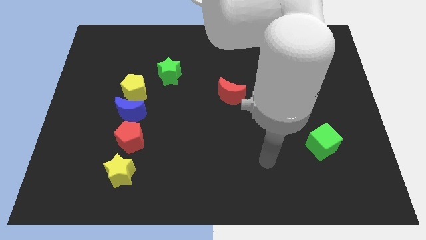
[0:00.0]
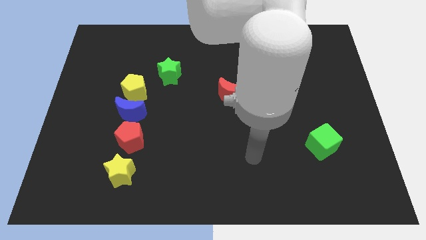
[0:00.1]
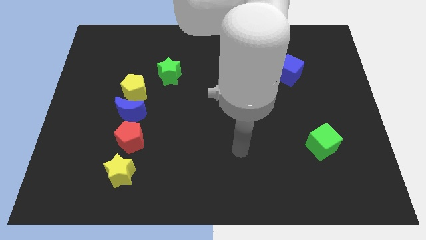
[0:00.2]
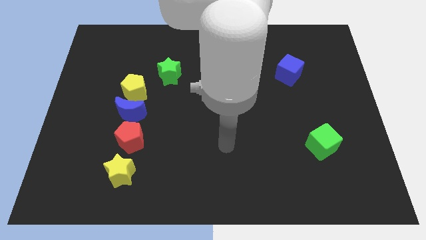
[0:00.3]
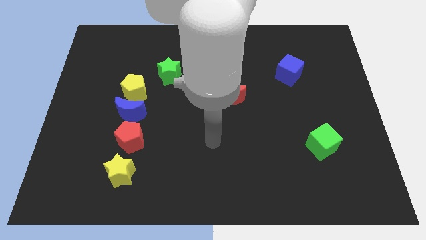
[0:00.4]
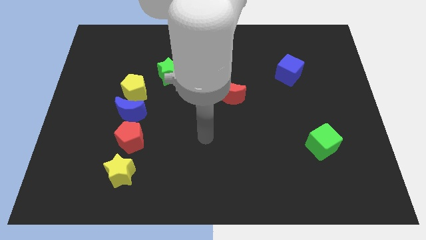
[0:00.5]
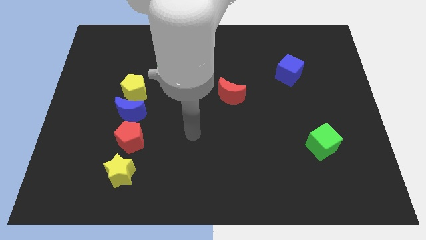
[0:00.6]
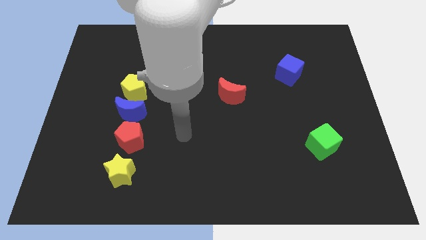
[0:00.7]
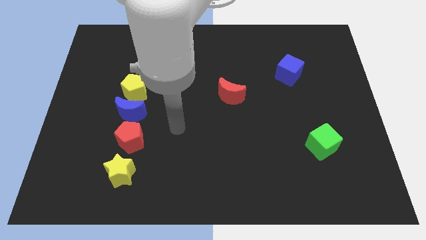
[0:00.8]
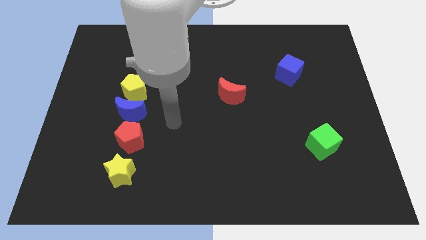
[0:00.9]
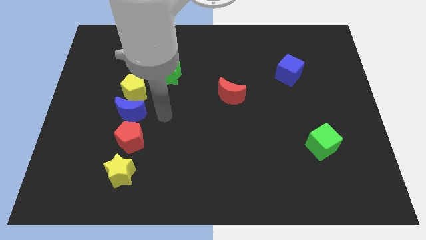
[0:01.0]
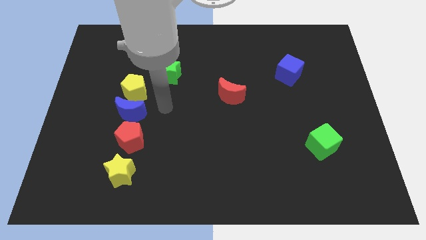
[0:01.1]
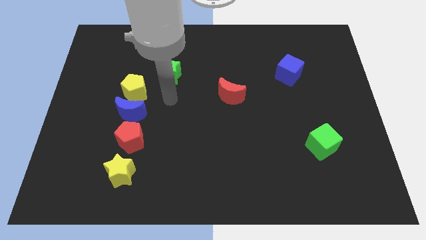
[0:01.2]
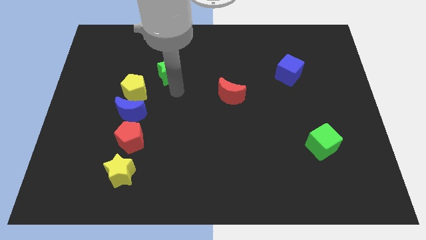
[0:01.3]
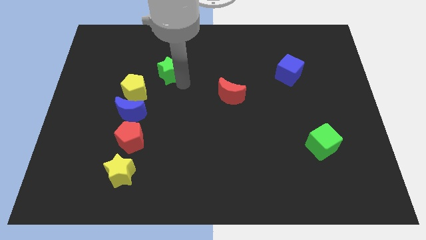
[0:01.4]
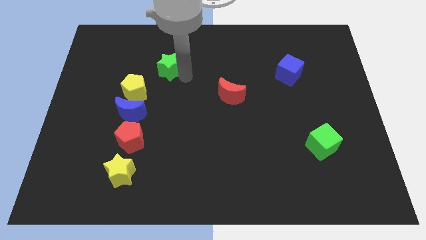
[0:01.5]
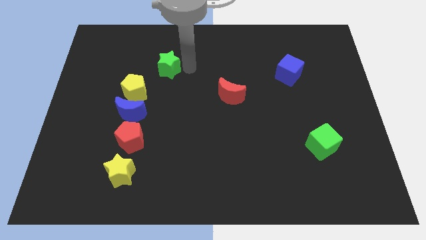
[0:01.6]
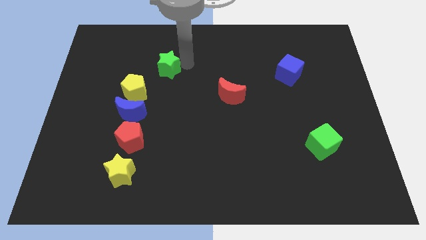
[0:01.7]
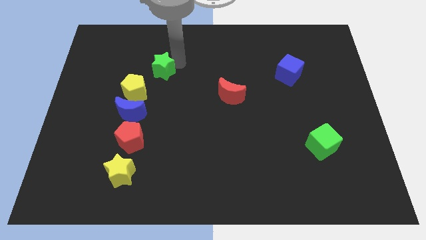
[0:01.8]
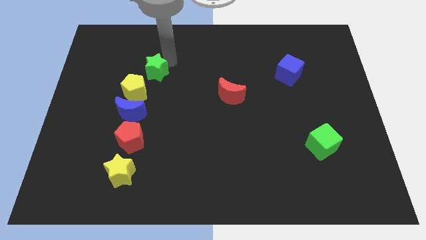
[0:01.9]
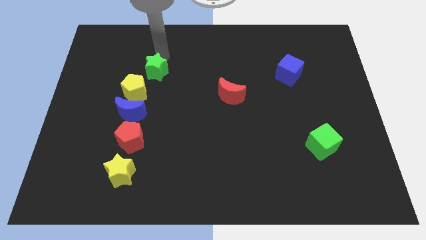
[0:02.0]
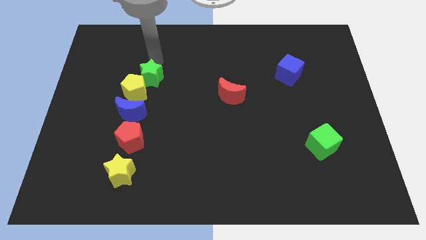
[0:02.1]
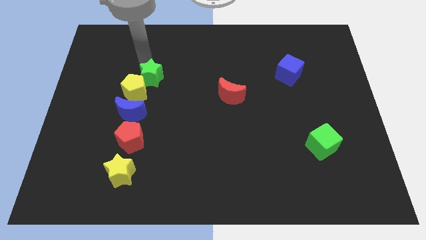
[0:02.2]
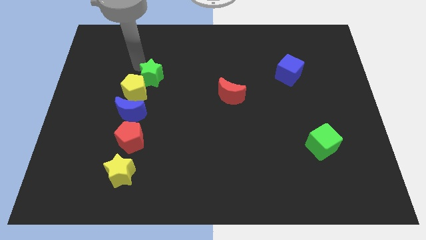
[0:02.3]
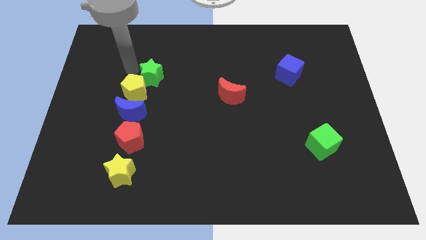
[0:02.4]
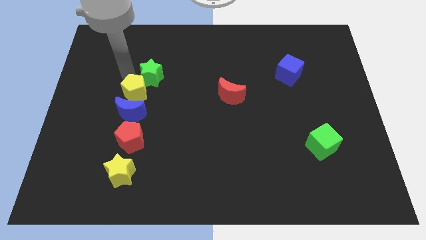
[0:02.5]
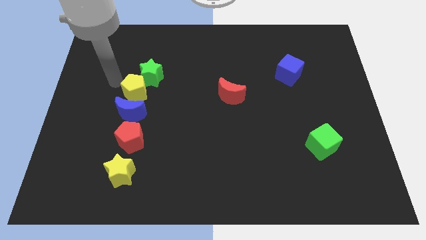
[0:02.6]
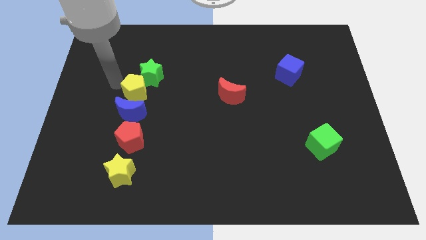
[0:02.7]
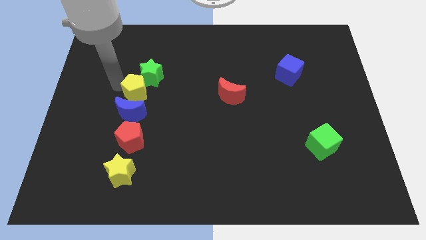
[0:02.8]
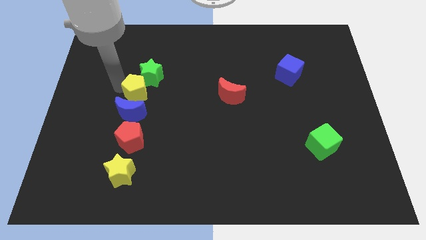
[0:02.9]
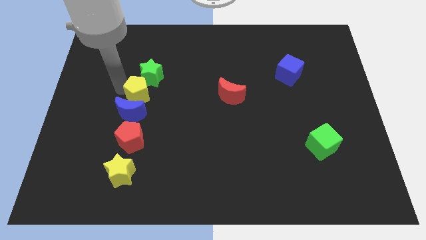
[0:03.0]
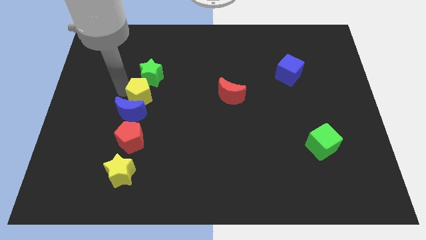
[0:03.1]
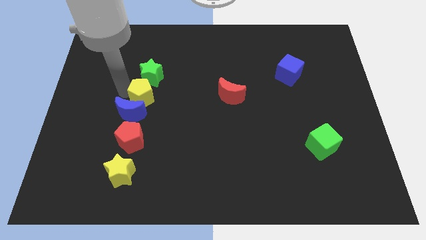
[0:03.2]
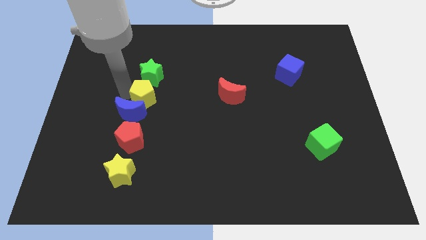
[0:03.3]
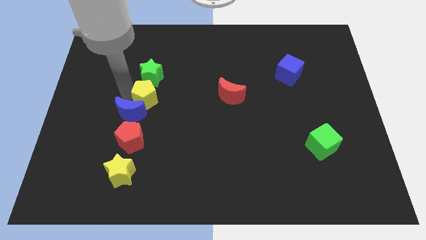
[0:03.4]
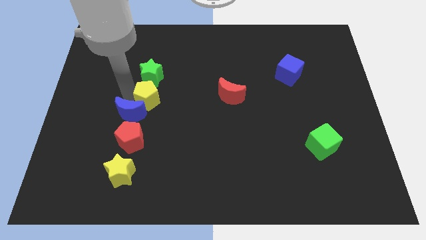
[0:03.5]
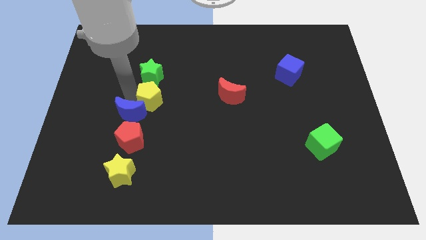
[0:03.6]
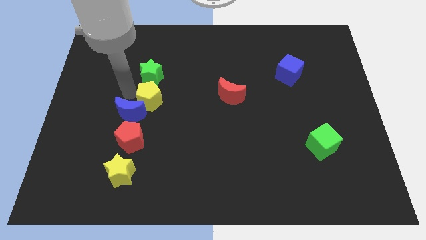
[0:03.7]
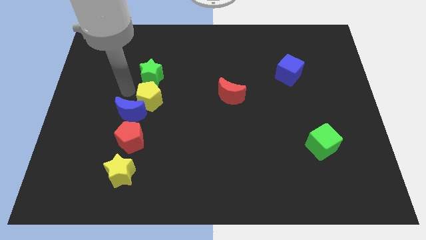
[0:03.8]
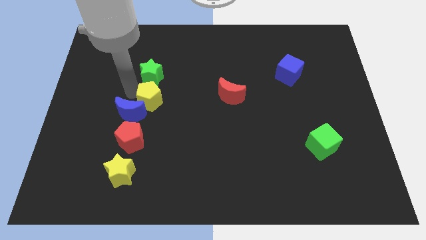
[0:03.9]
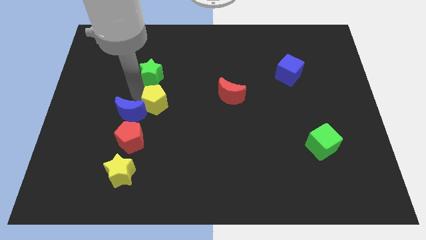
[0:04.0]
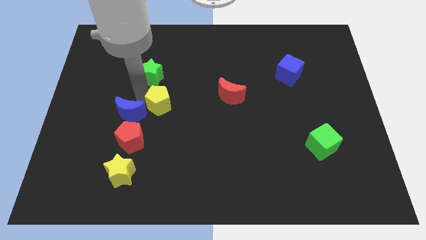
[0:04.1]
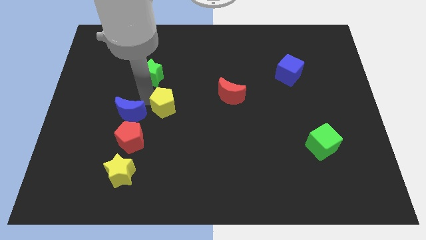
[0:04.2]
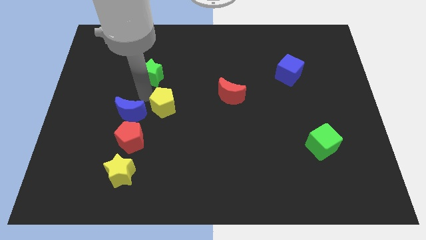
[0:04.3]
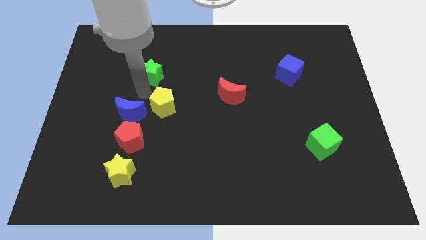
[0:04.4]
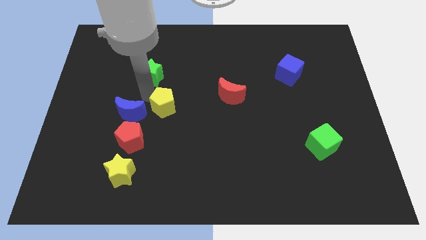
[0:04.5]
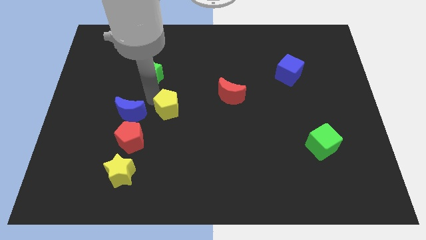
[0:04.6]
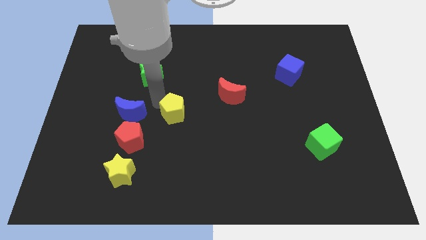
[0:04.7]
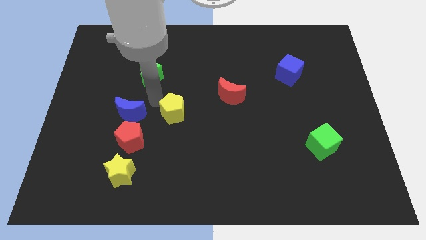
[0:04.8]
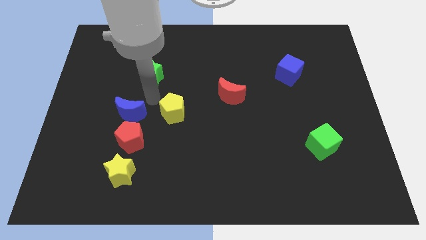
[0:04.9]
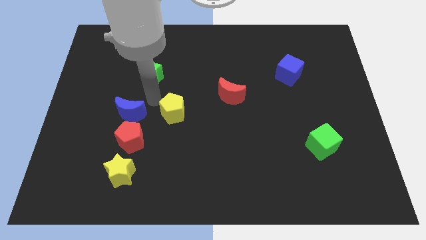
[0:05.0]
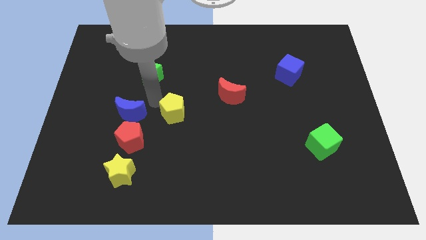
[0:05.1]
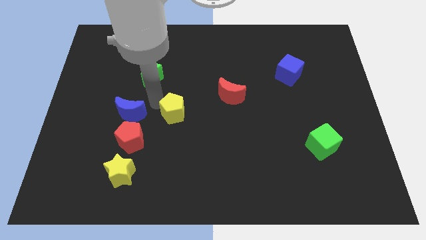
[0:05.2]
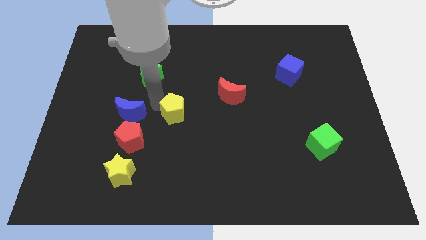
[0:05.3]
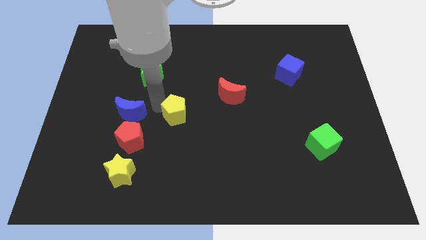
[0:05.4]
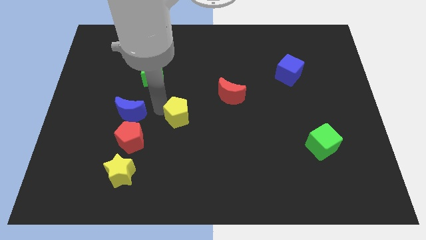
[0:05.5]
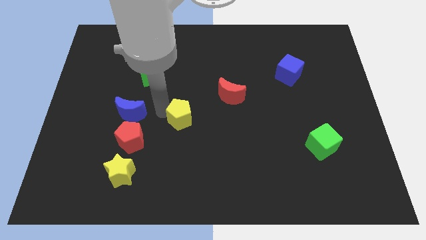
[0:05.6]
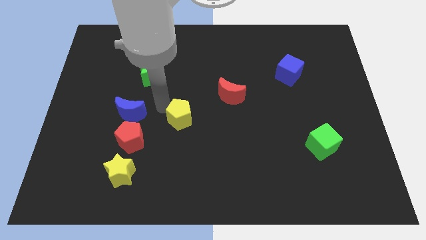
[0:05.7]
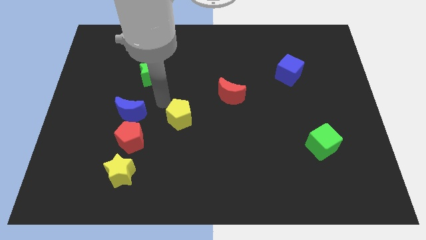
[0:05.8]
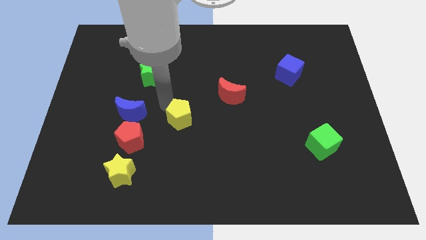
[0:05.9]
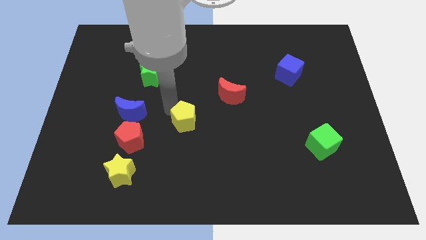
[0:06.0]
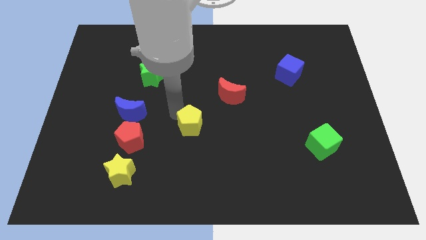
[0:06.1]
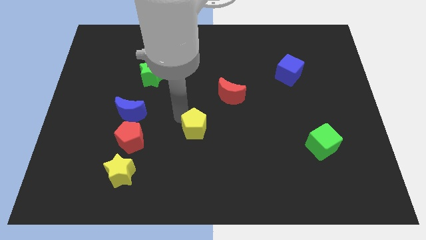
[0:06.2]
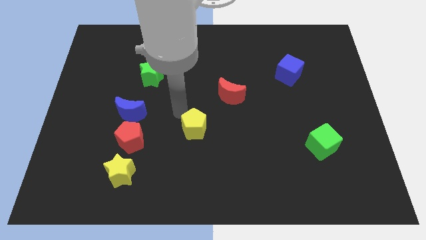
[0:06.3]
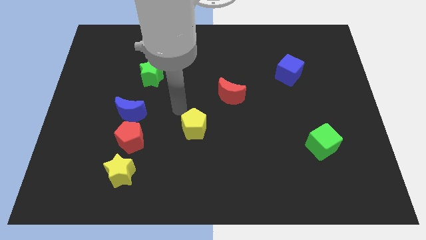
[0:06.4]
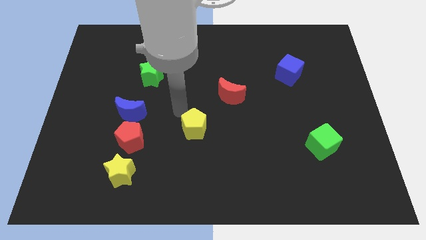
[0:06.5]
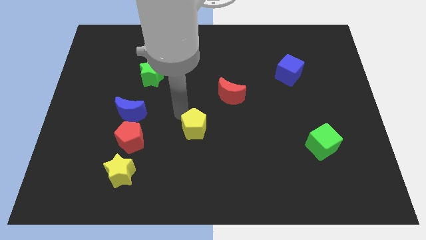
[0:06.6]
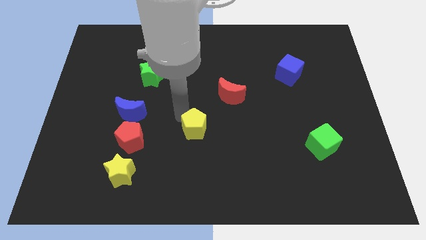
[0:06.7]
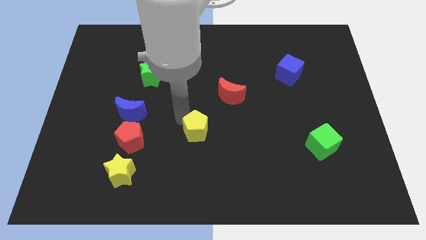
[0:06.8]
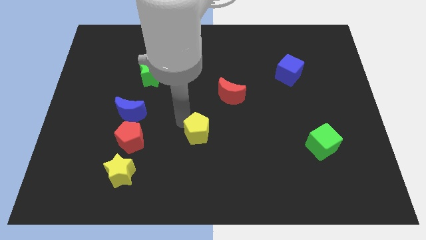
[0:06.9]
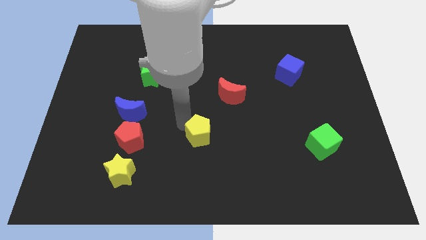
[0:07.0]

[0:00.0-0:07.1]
move the yellow pentagon diagonally downwards and to the right

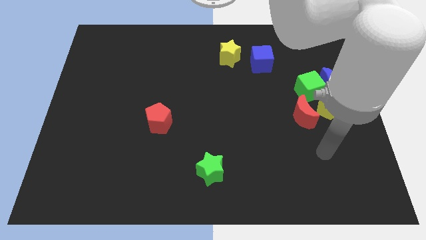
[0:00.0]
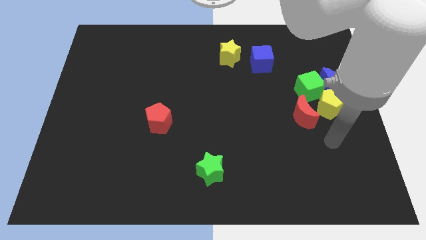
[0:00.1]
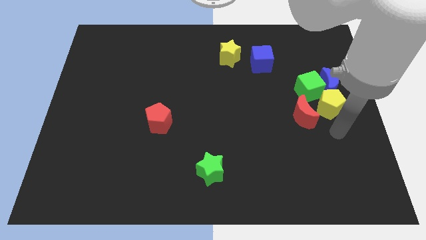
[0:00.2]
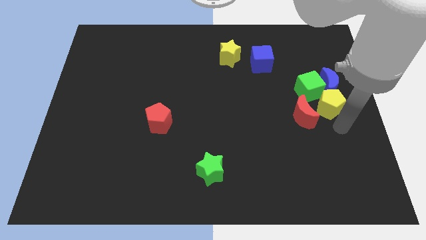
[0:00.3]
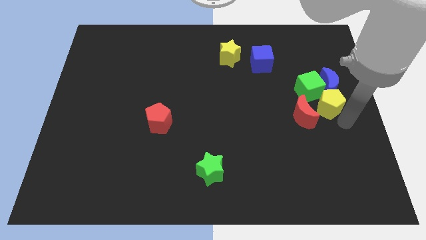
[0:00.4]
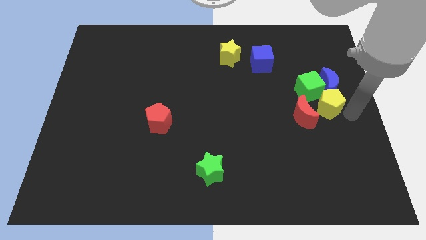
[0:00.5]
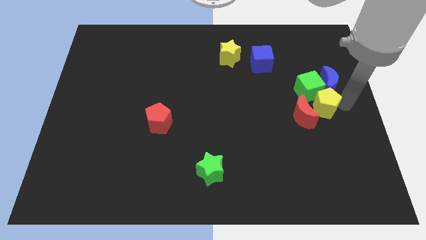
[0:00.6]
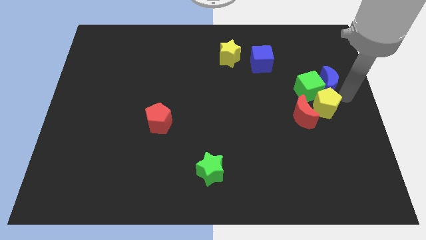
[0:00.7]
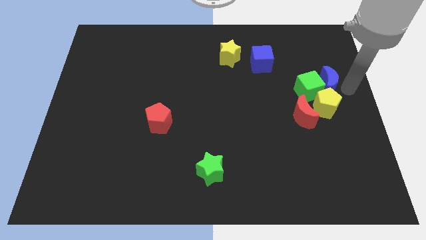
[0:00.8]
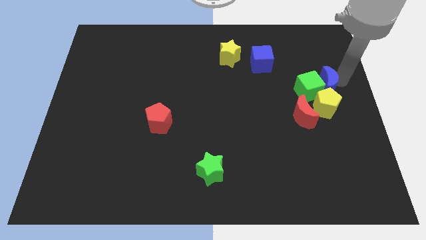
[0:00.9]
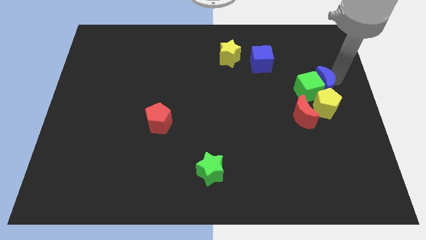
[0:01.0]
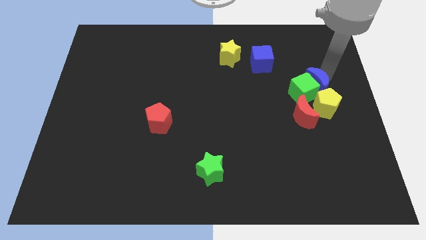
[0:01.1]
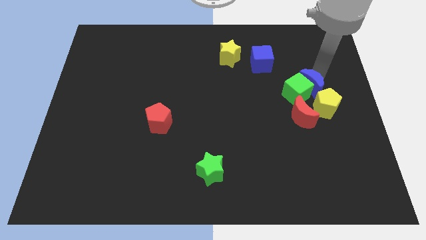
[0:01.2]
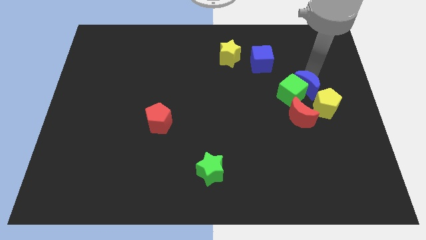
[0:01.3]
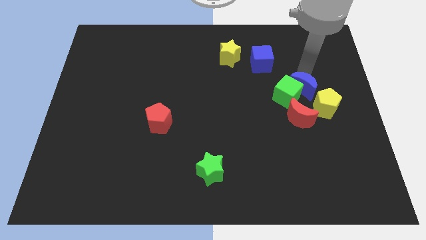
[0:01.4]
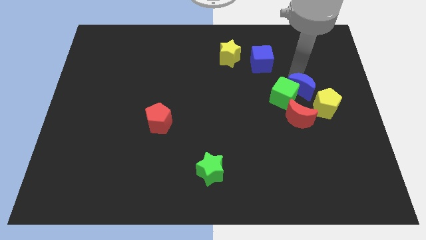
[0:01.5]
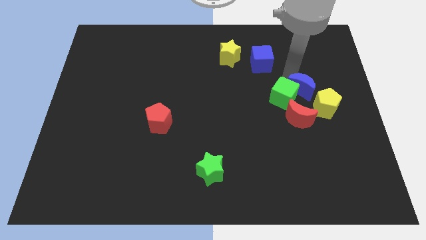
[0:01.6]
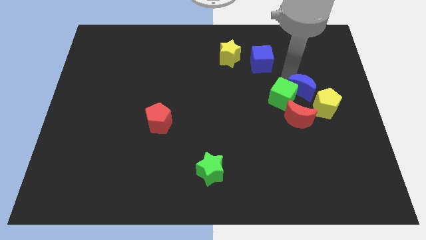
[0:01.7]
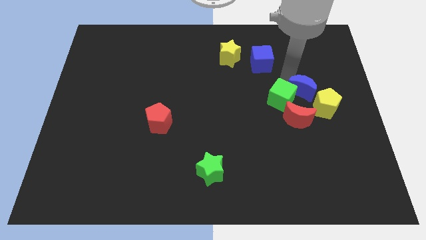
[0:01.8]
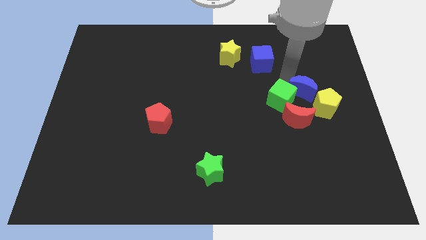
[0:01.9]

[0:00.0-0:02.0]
slightly push the green cube diagonally down and to the left
